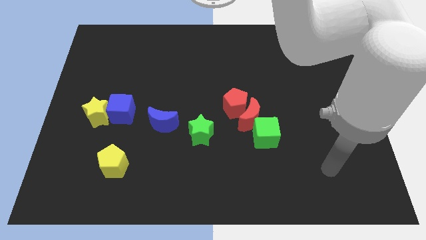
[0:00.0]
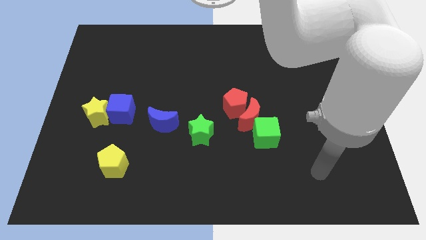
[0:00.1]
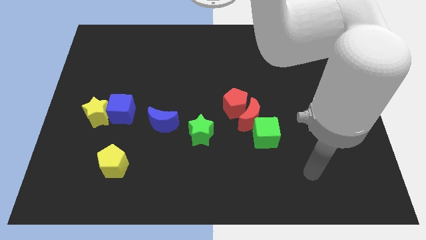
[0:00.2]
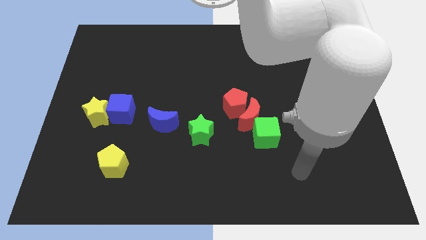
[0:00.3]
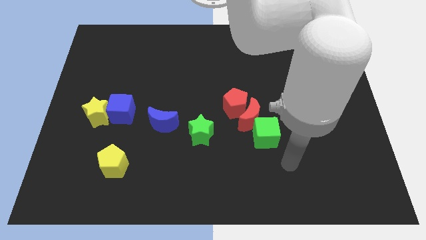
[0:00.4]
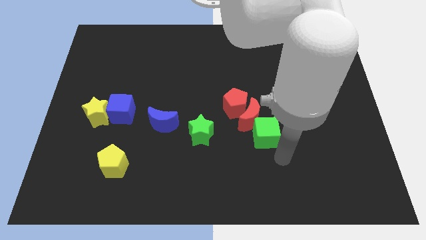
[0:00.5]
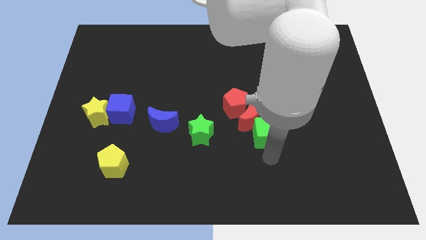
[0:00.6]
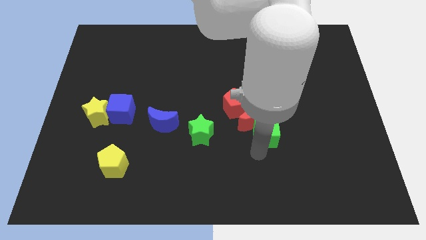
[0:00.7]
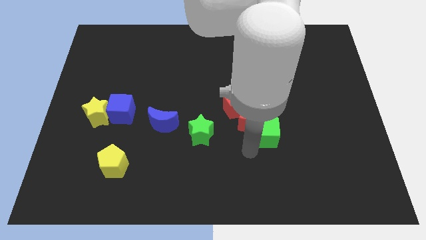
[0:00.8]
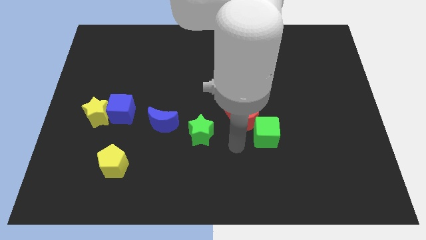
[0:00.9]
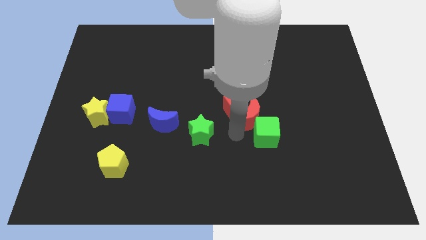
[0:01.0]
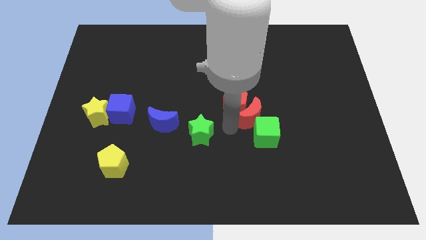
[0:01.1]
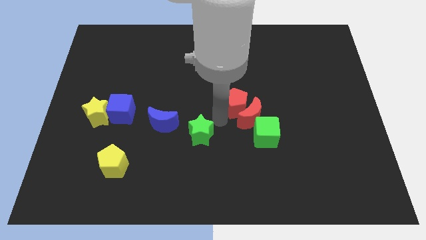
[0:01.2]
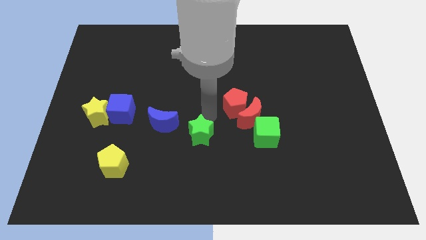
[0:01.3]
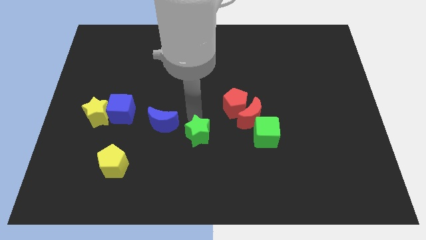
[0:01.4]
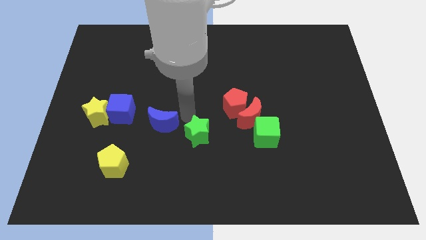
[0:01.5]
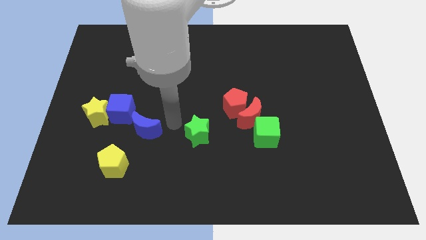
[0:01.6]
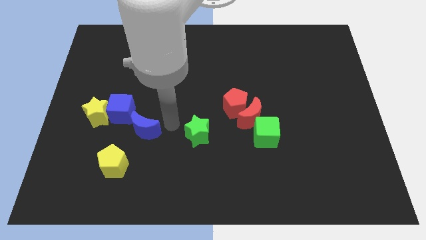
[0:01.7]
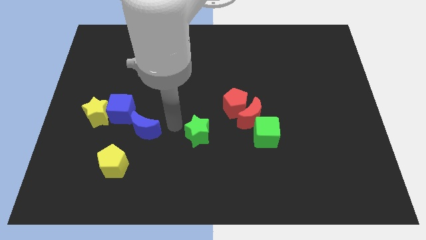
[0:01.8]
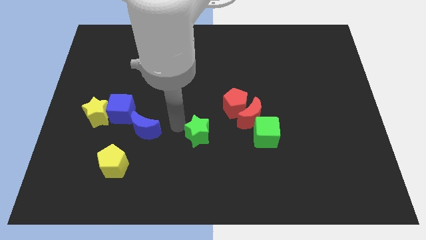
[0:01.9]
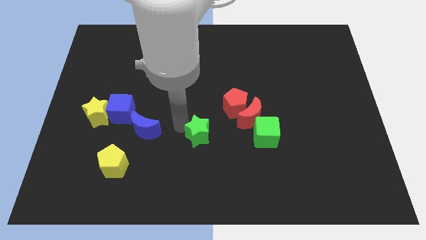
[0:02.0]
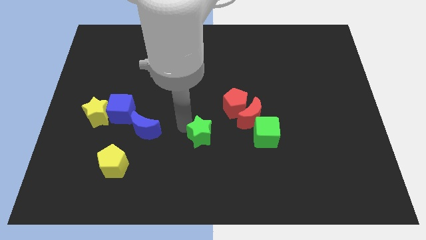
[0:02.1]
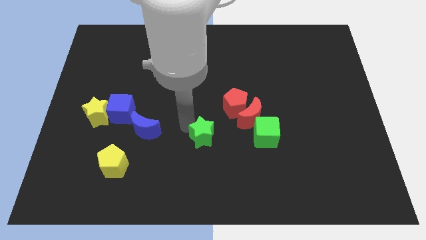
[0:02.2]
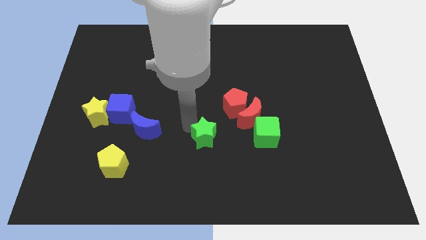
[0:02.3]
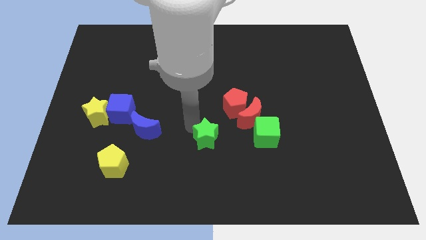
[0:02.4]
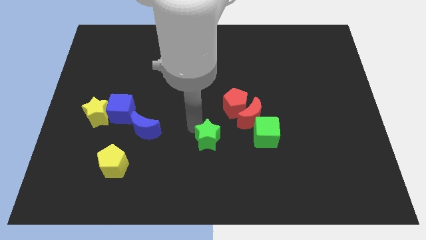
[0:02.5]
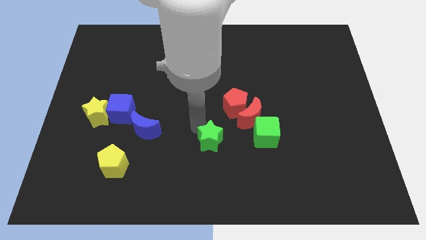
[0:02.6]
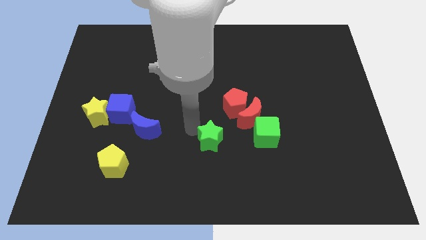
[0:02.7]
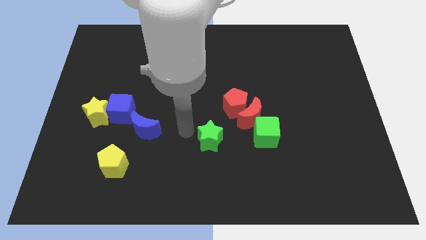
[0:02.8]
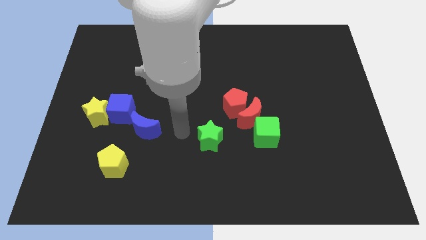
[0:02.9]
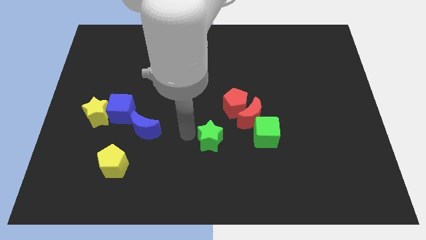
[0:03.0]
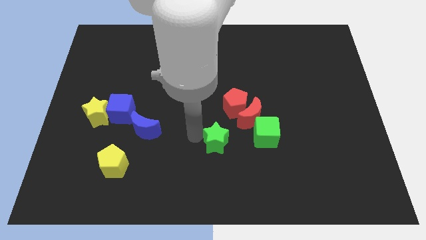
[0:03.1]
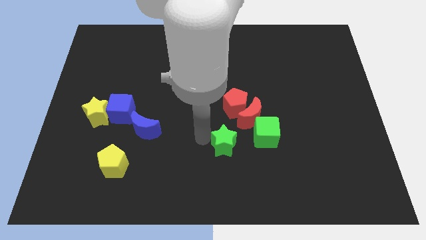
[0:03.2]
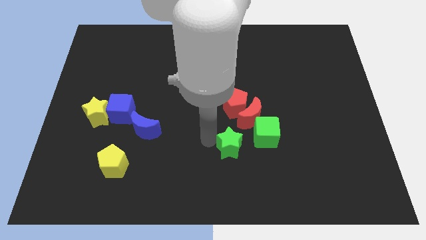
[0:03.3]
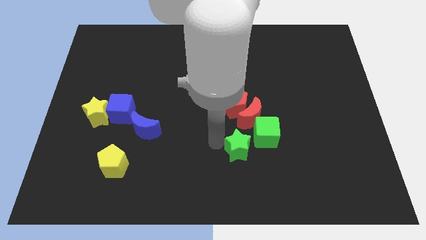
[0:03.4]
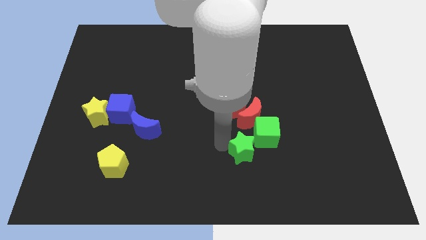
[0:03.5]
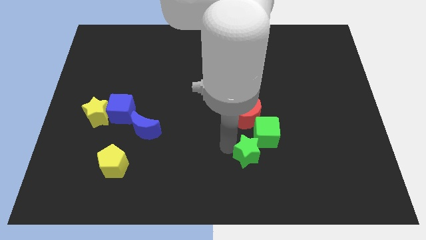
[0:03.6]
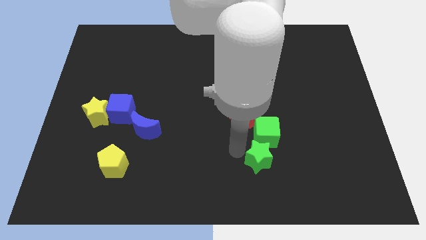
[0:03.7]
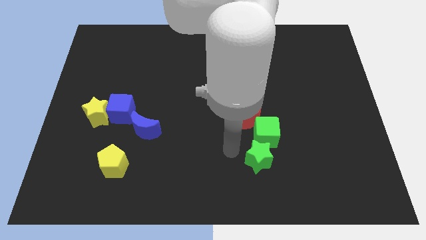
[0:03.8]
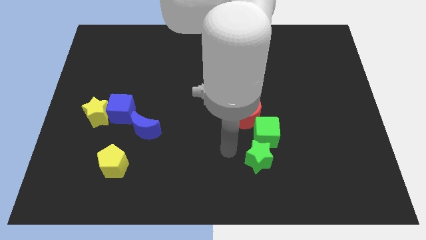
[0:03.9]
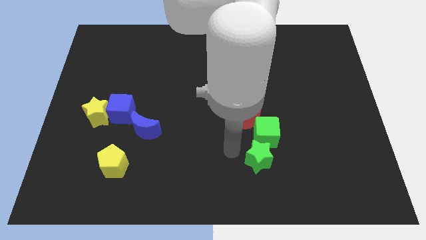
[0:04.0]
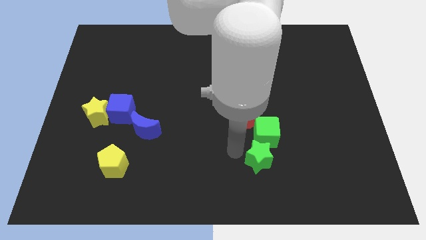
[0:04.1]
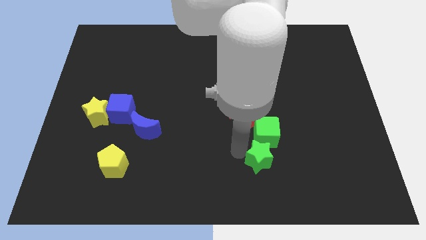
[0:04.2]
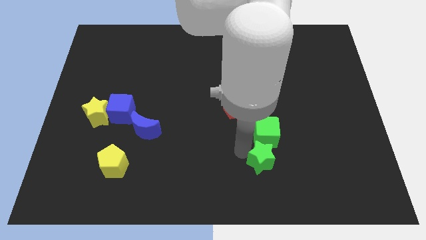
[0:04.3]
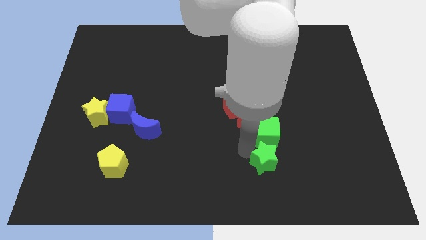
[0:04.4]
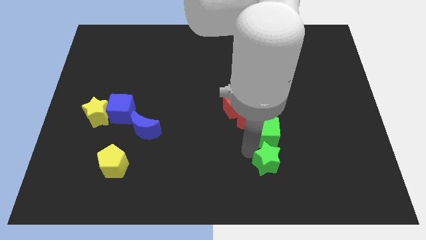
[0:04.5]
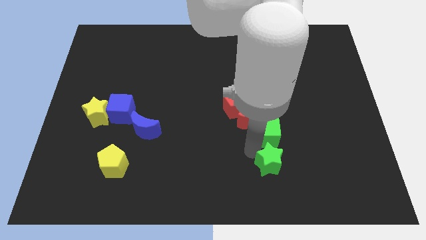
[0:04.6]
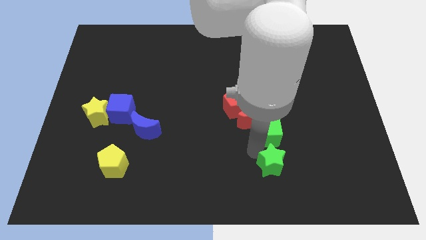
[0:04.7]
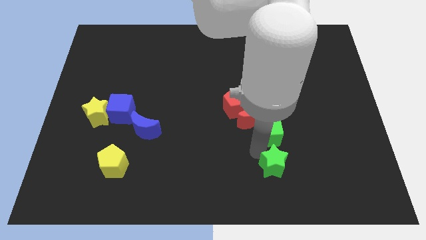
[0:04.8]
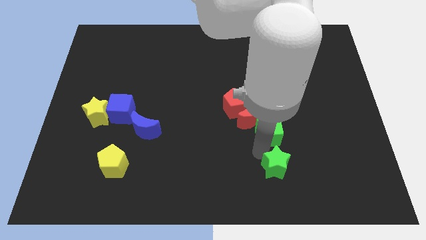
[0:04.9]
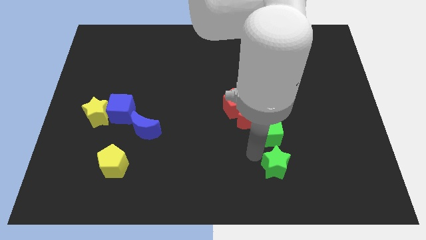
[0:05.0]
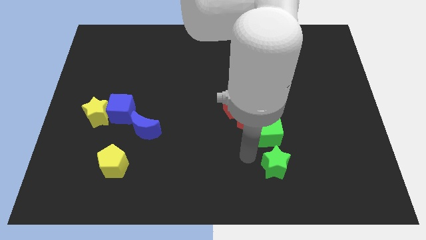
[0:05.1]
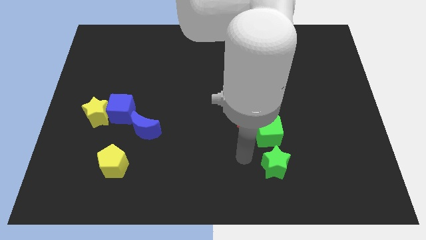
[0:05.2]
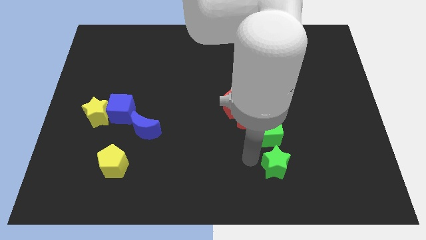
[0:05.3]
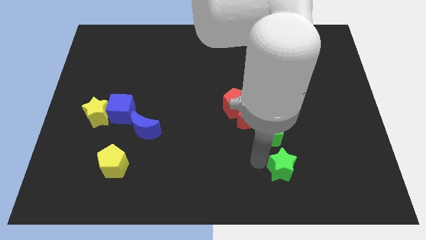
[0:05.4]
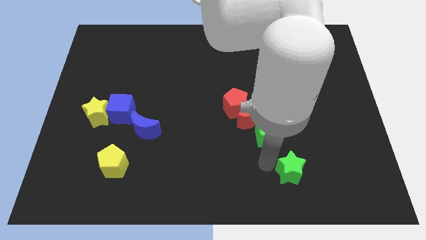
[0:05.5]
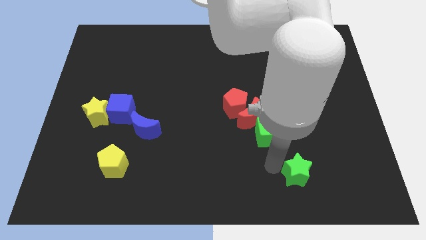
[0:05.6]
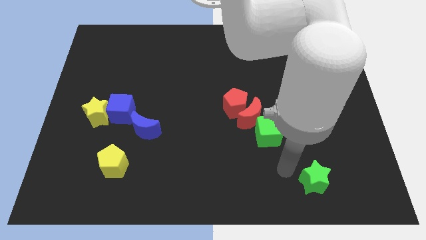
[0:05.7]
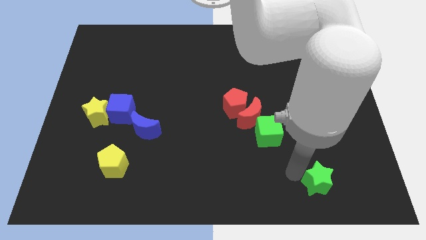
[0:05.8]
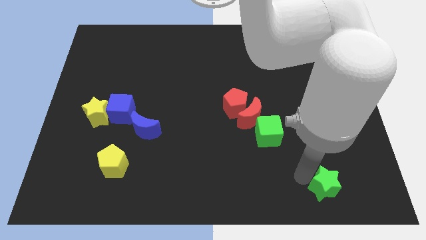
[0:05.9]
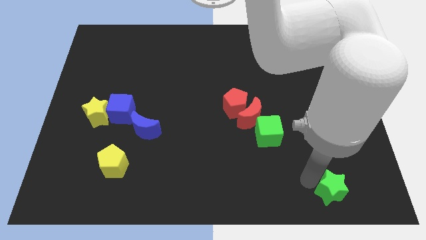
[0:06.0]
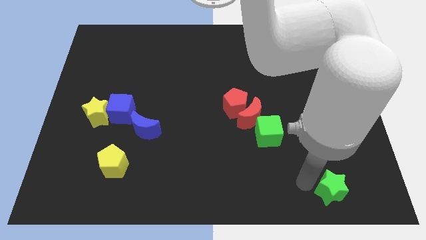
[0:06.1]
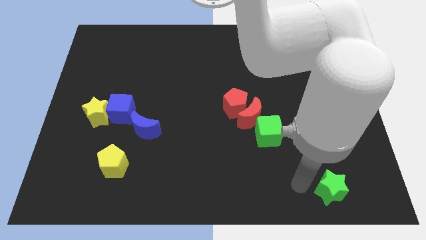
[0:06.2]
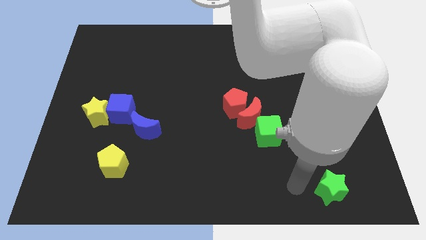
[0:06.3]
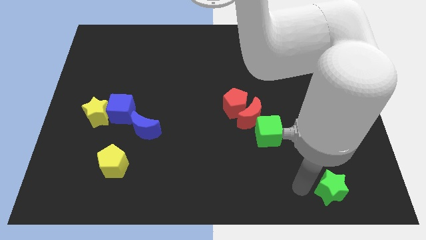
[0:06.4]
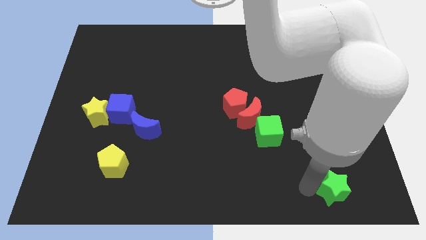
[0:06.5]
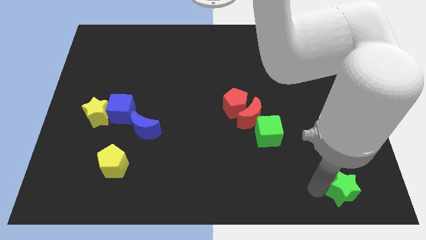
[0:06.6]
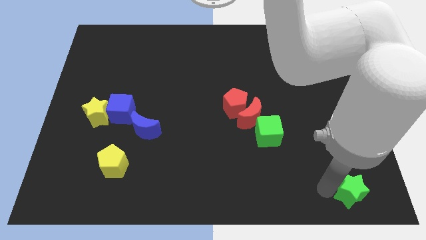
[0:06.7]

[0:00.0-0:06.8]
move the green star to the lower right corner
